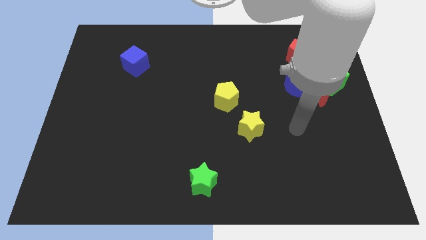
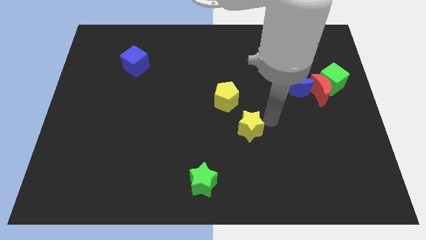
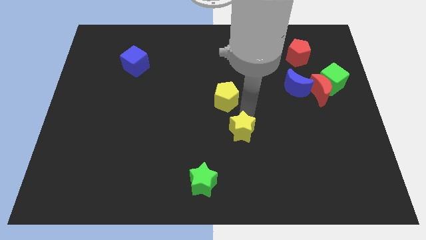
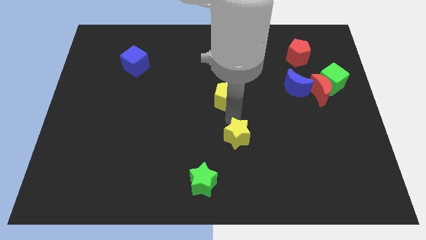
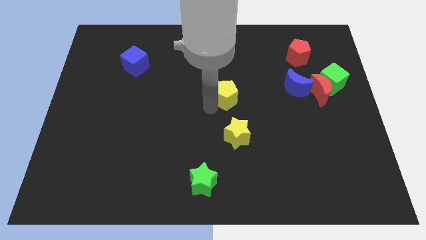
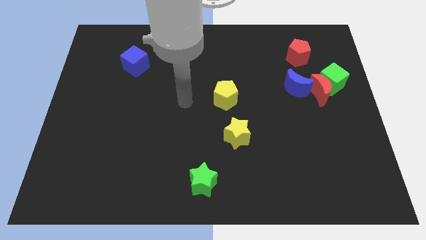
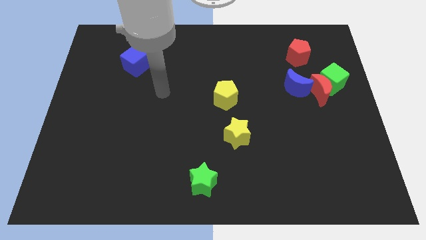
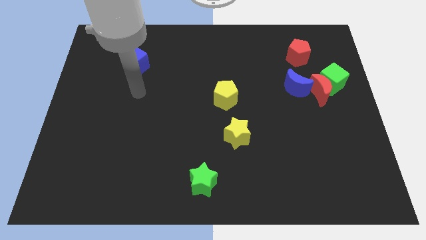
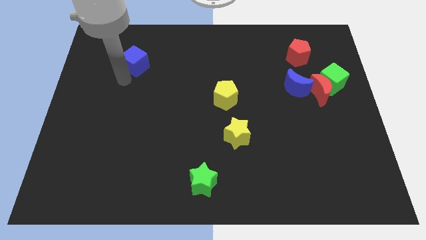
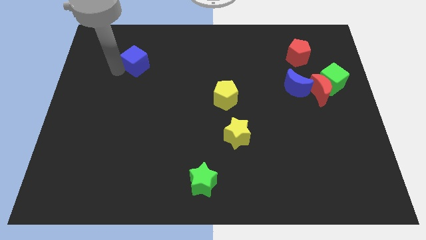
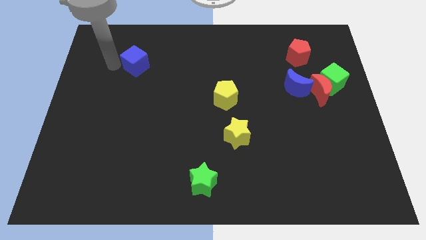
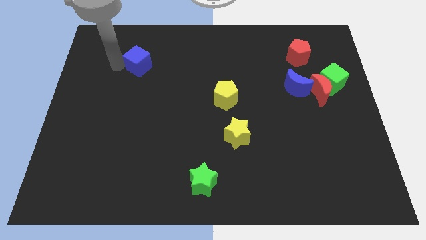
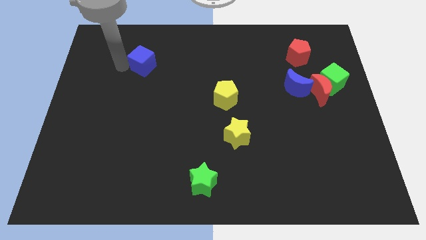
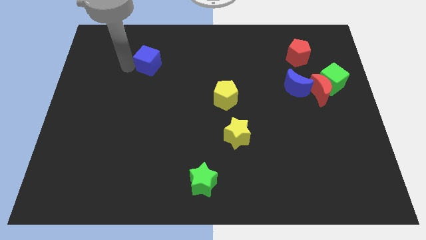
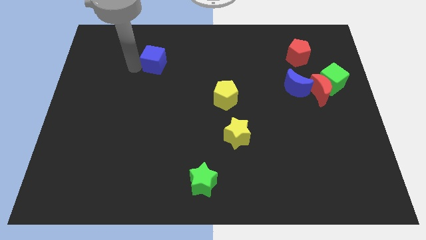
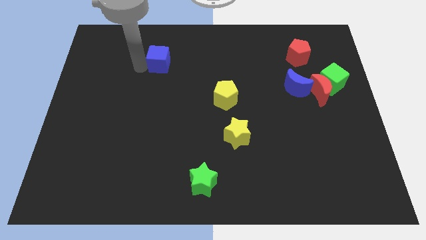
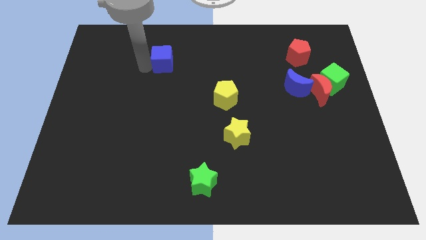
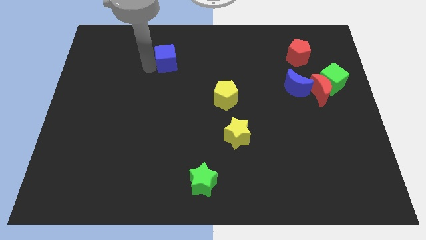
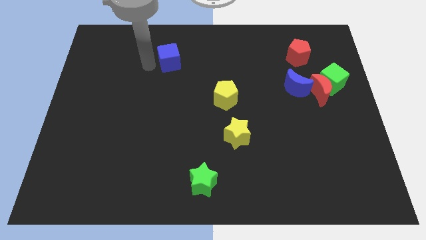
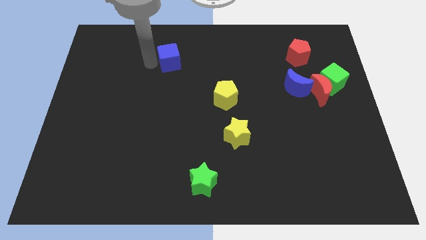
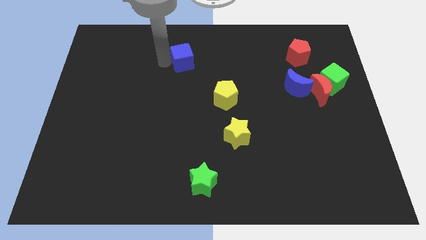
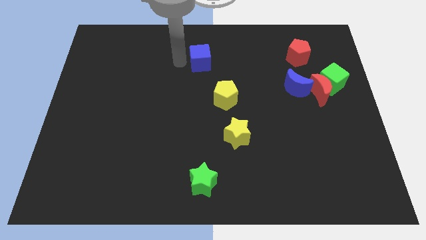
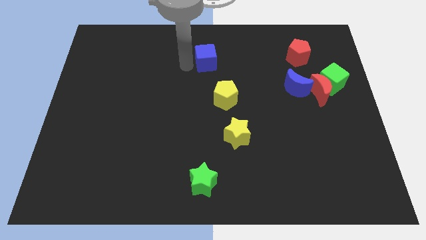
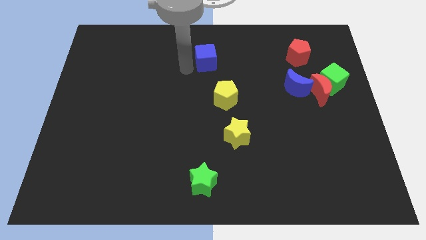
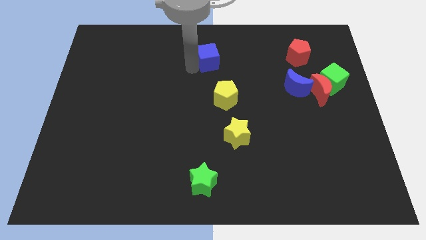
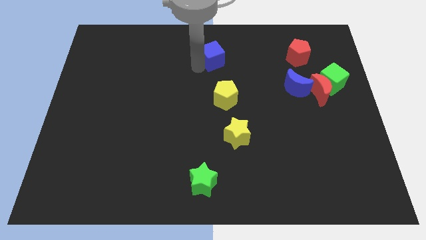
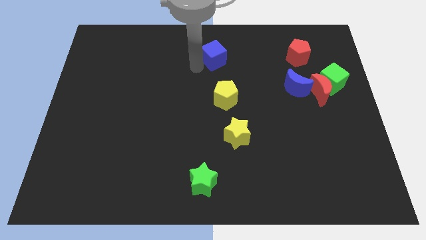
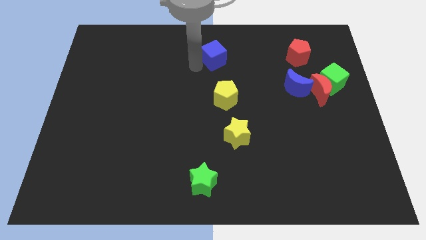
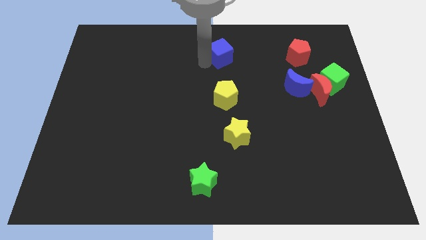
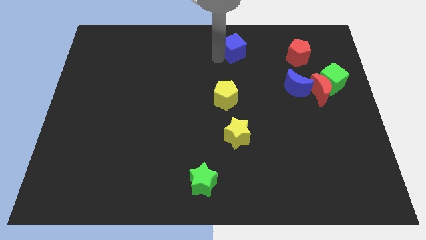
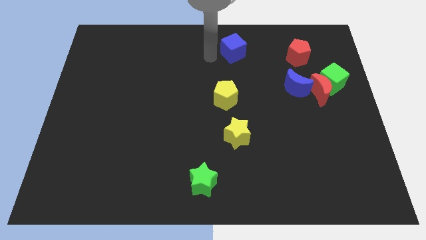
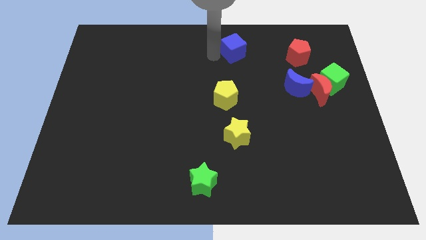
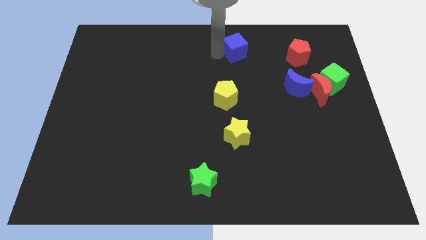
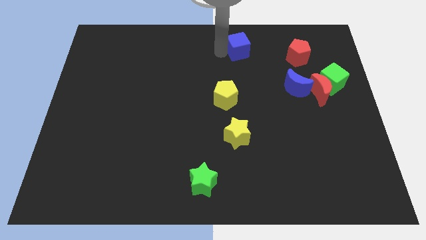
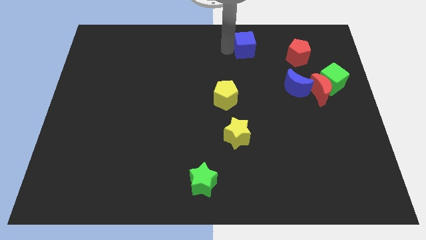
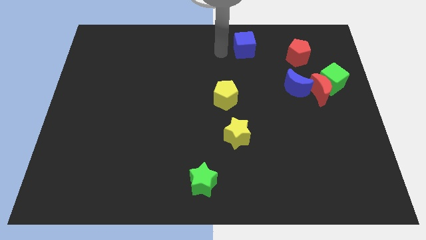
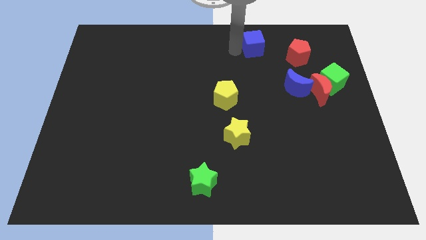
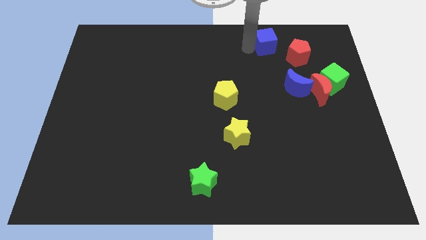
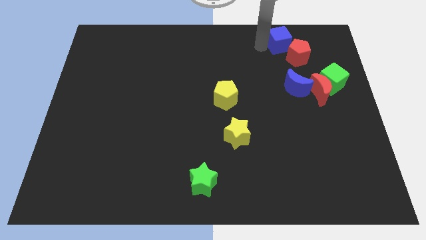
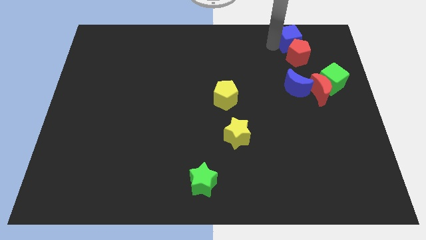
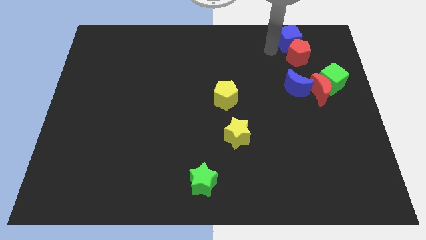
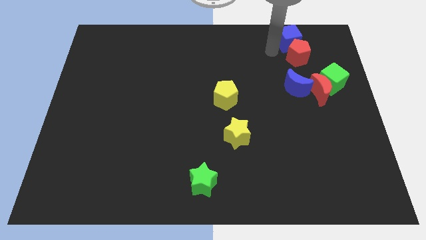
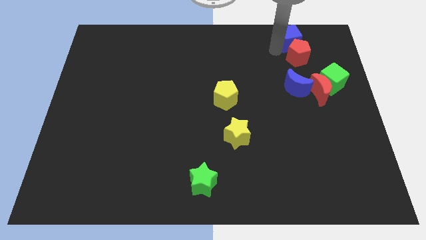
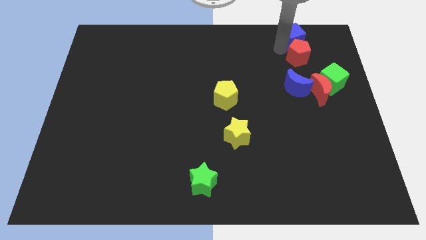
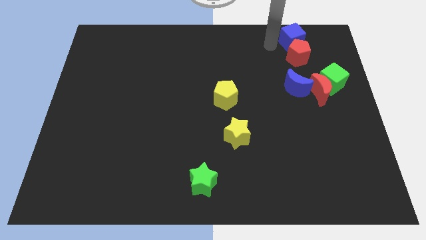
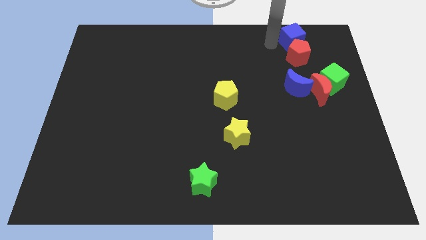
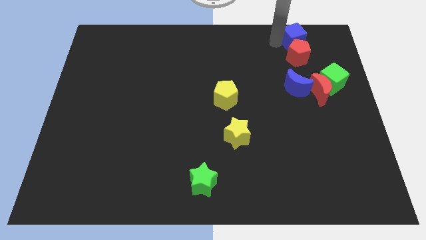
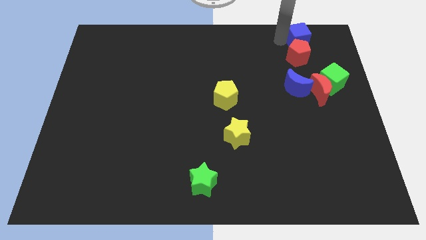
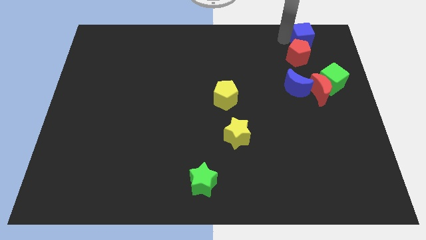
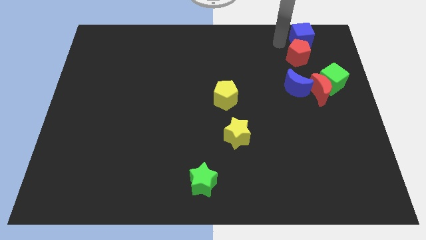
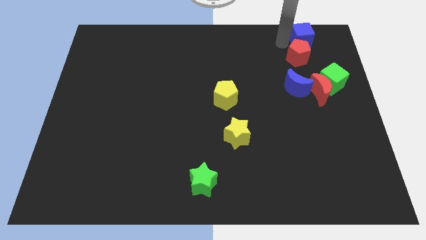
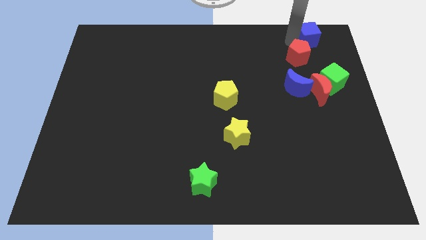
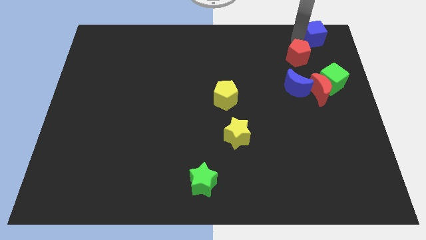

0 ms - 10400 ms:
slide the blue cube to the upper right corner

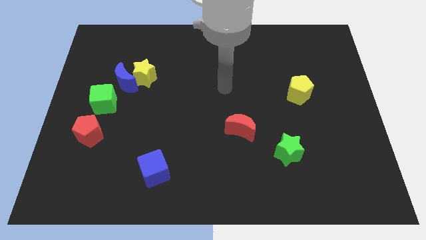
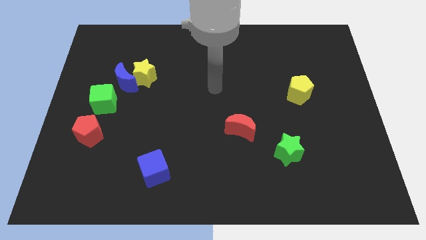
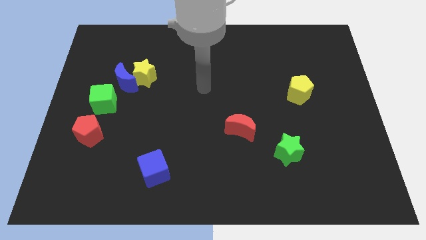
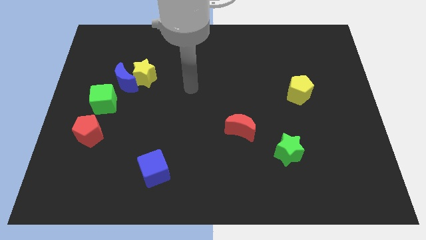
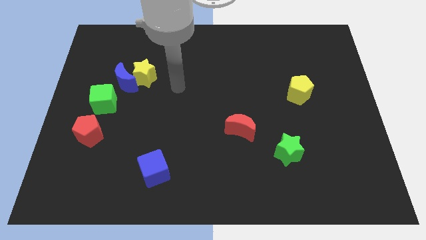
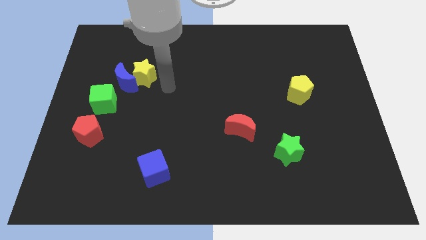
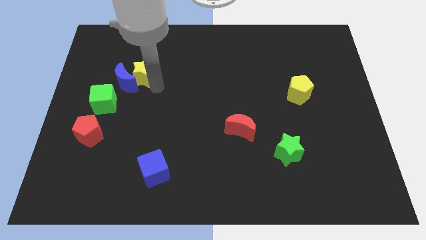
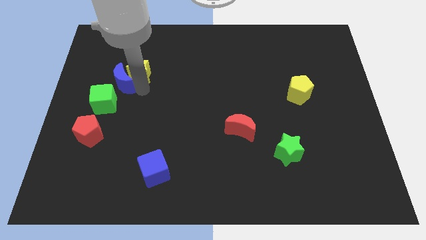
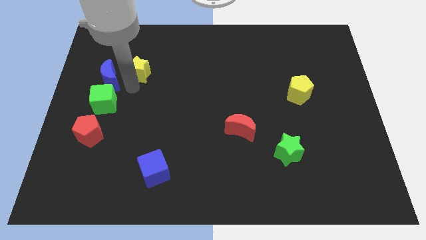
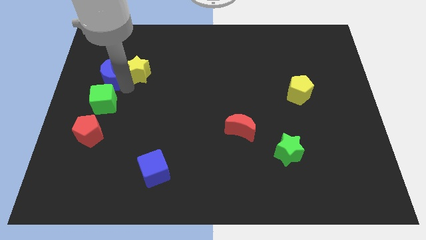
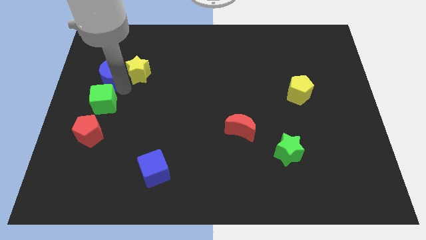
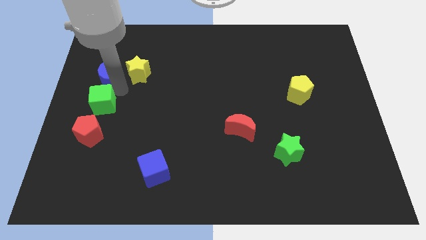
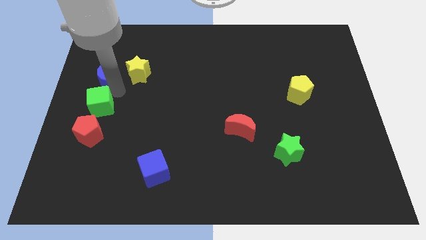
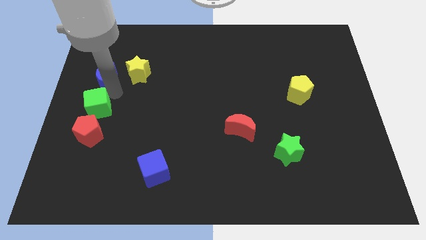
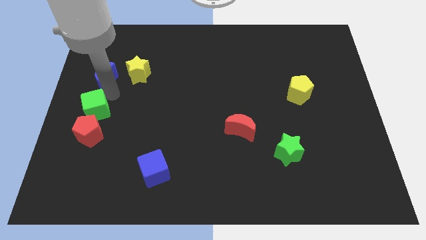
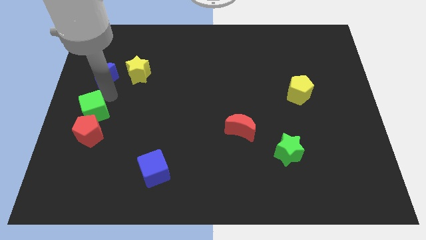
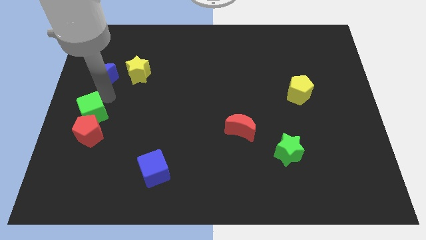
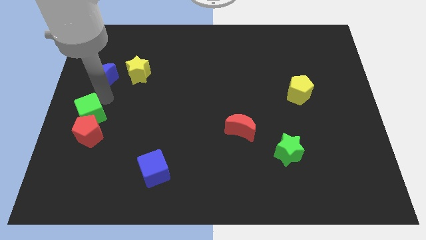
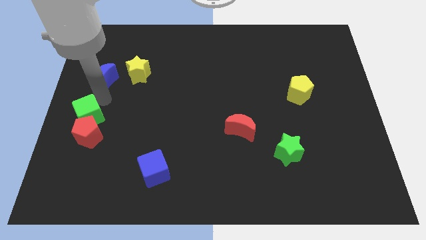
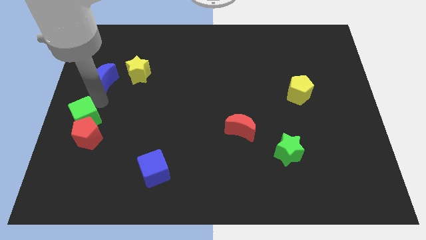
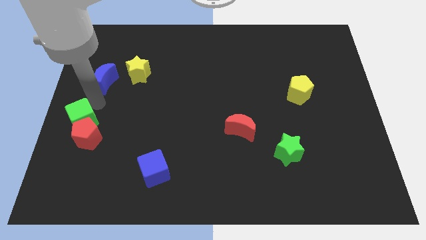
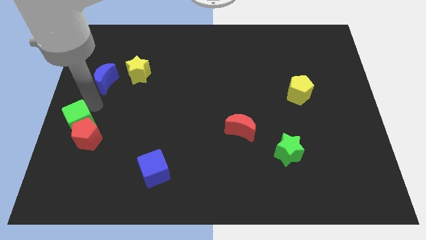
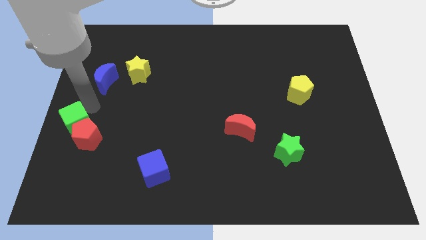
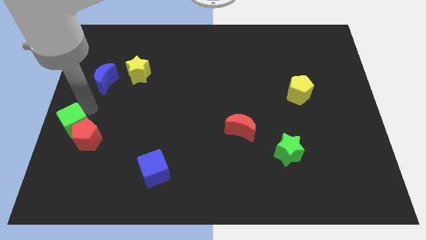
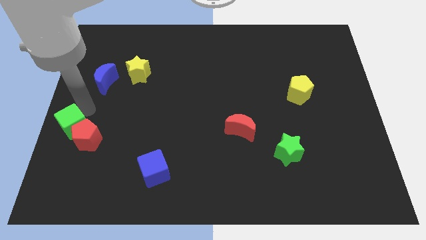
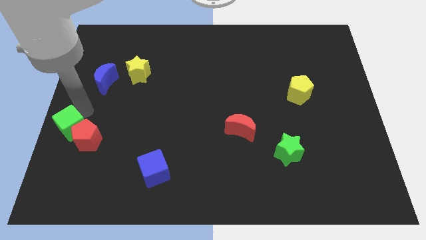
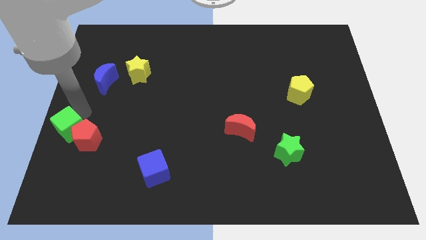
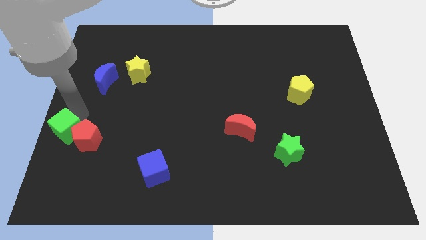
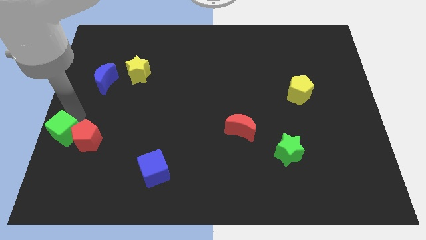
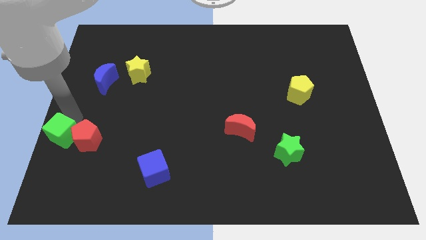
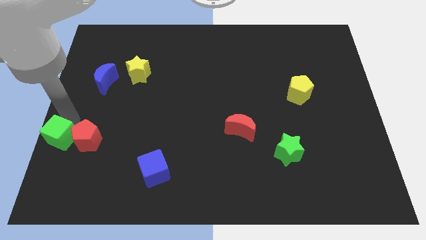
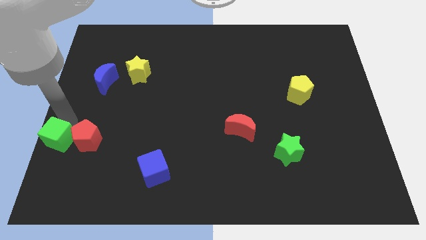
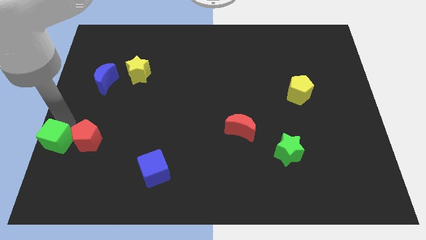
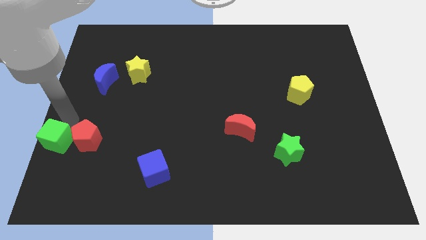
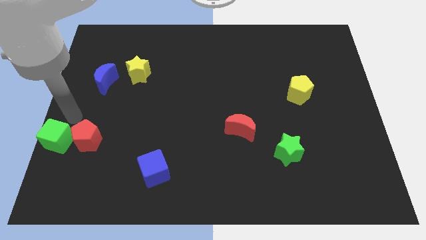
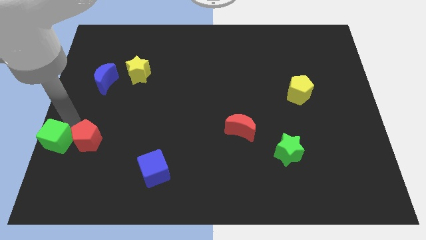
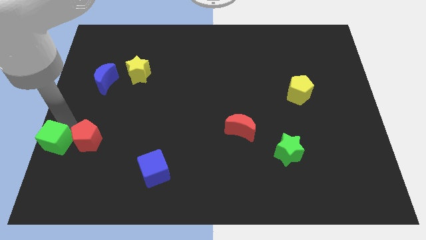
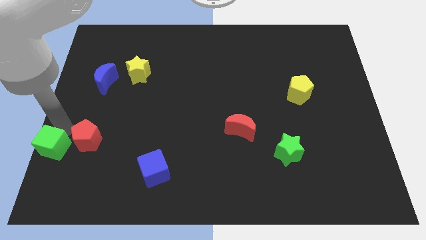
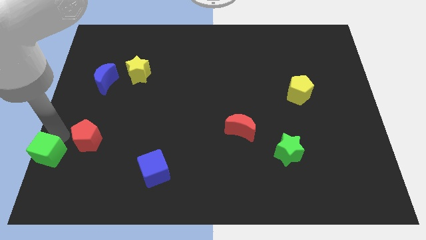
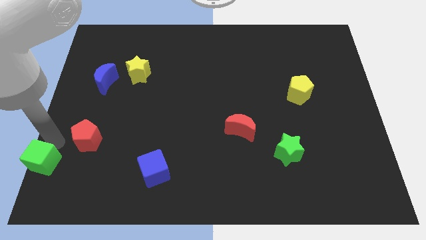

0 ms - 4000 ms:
slide the green cube to the bottom left of the board
